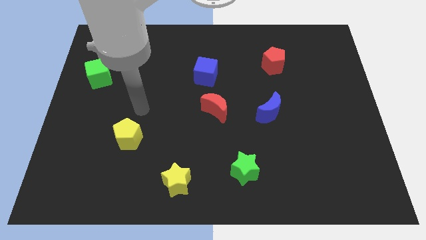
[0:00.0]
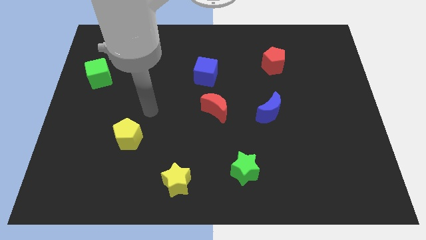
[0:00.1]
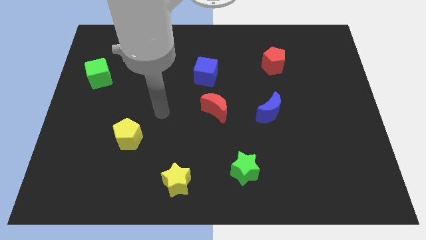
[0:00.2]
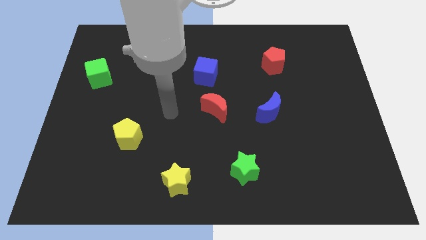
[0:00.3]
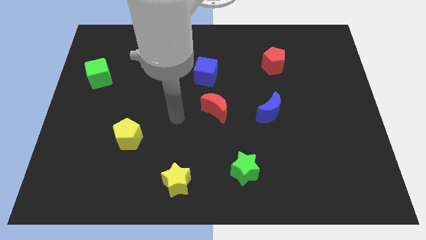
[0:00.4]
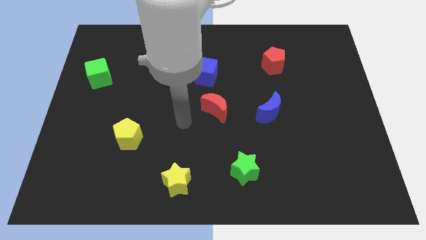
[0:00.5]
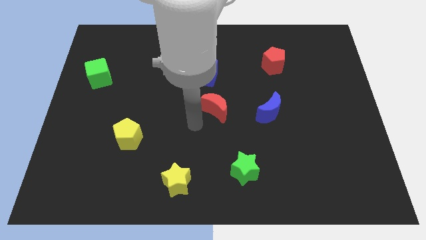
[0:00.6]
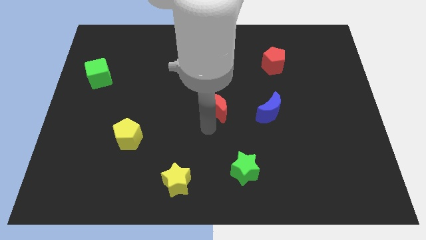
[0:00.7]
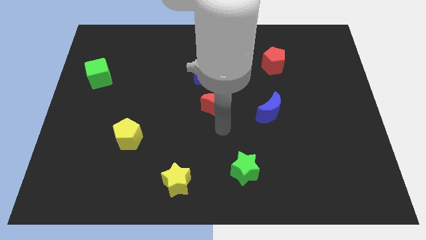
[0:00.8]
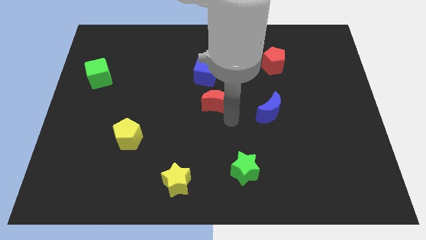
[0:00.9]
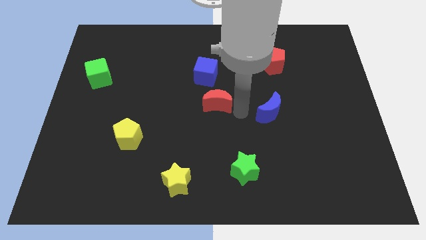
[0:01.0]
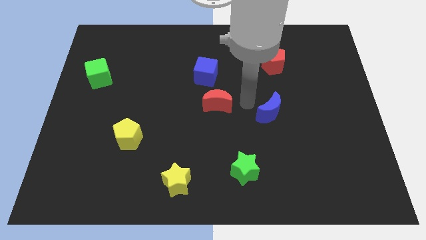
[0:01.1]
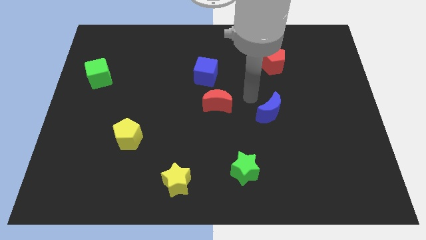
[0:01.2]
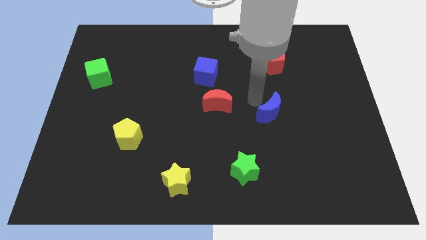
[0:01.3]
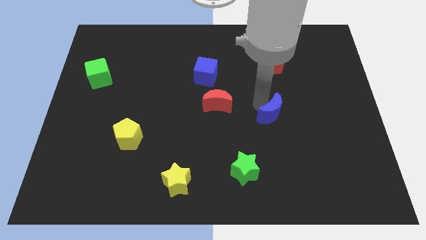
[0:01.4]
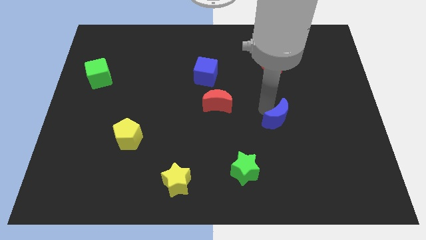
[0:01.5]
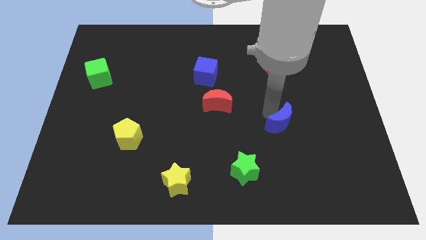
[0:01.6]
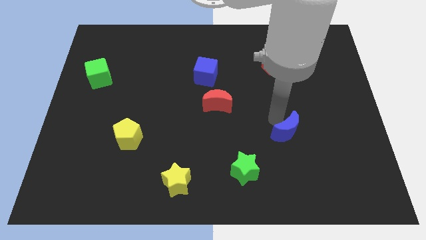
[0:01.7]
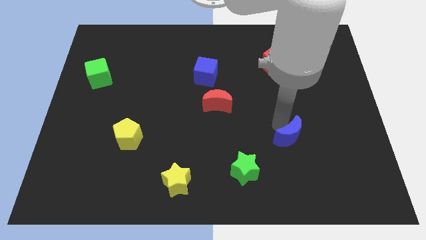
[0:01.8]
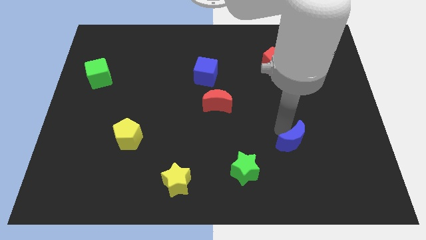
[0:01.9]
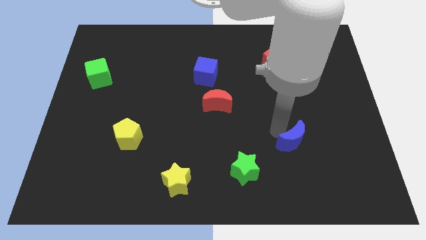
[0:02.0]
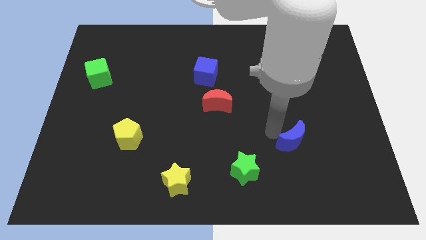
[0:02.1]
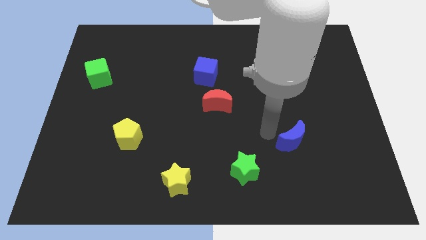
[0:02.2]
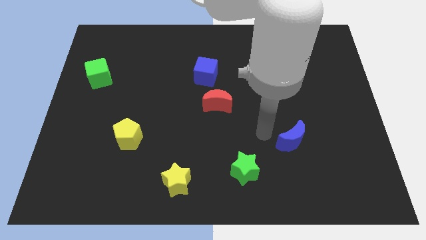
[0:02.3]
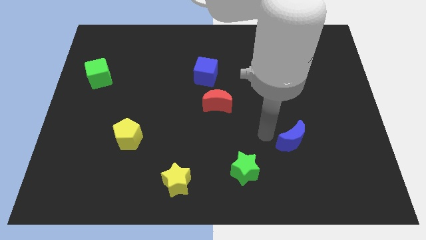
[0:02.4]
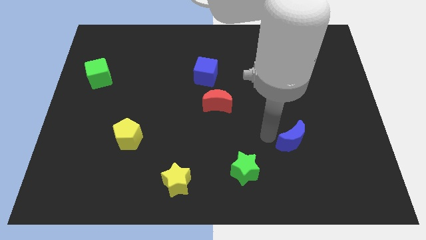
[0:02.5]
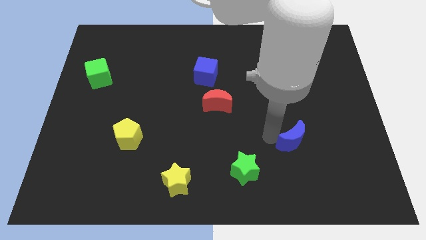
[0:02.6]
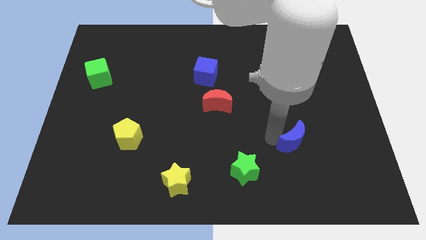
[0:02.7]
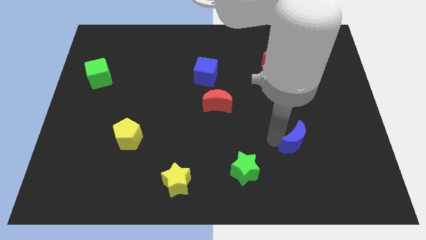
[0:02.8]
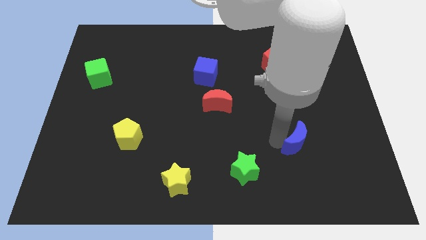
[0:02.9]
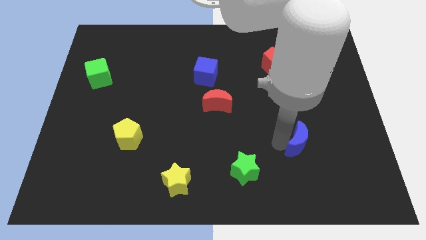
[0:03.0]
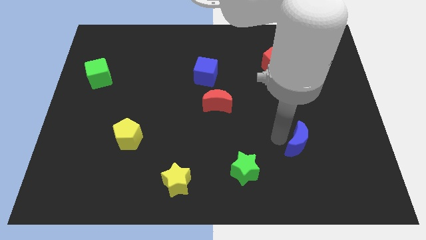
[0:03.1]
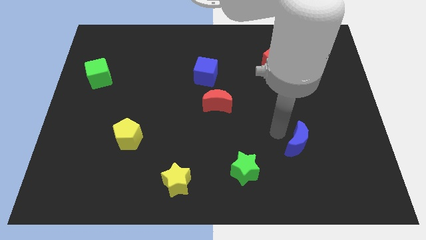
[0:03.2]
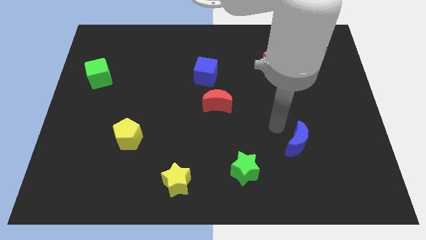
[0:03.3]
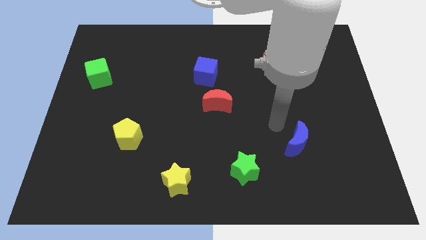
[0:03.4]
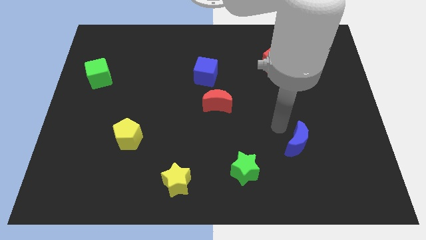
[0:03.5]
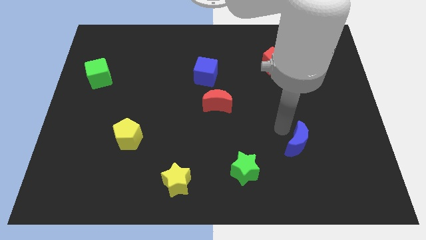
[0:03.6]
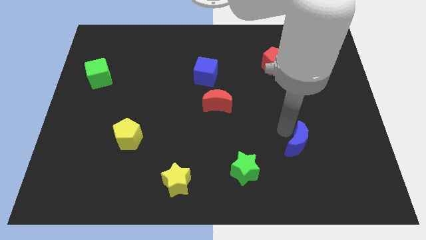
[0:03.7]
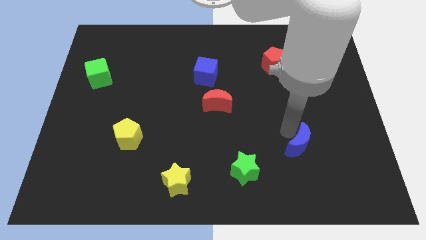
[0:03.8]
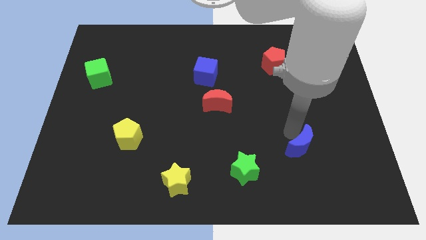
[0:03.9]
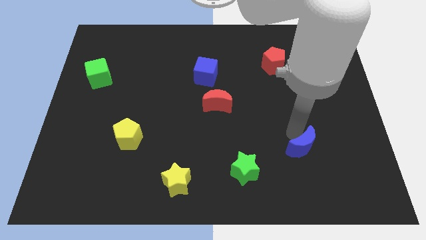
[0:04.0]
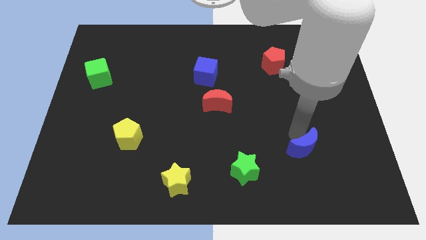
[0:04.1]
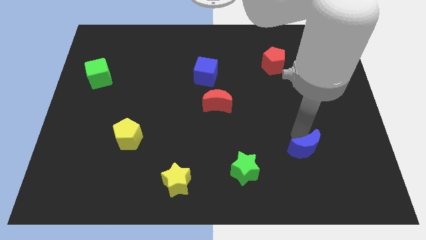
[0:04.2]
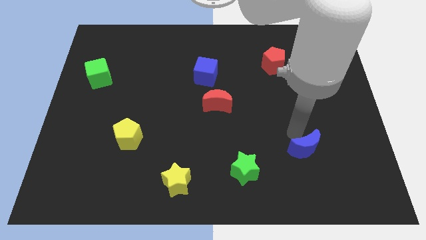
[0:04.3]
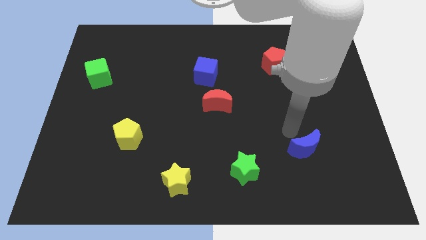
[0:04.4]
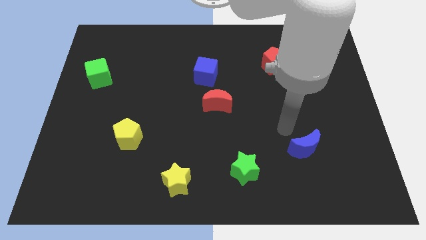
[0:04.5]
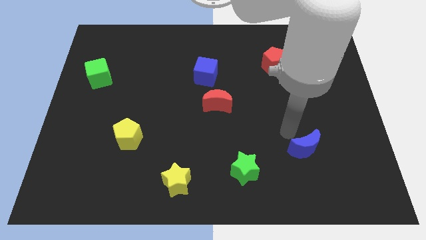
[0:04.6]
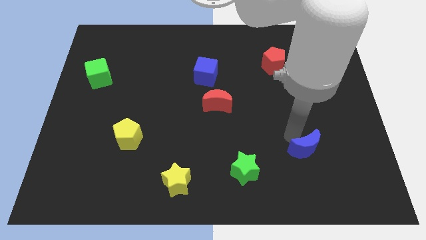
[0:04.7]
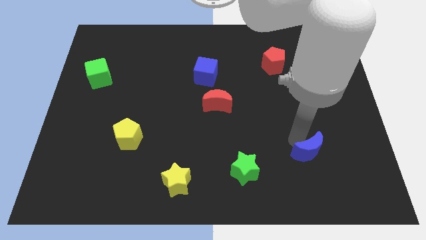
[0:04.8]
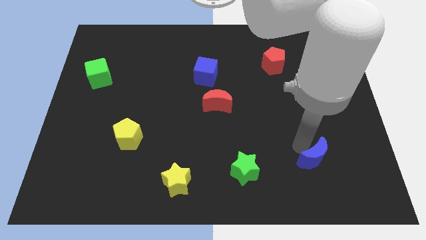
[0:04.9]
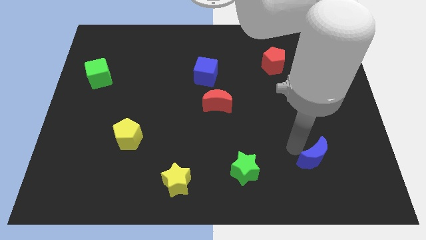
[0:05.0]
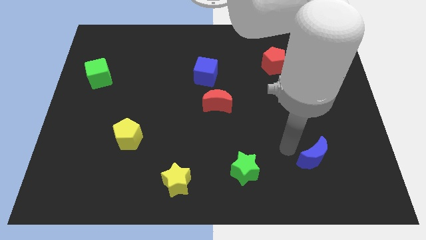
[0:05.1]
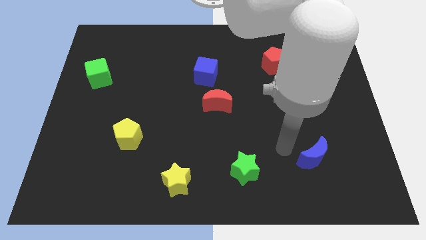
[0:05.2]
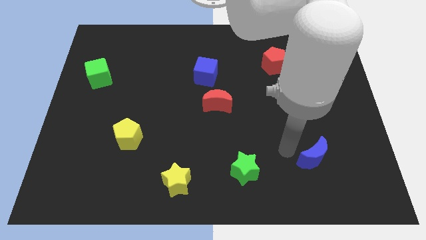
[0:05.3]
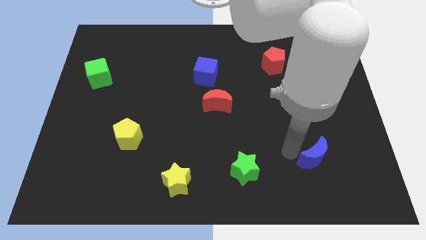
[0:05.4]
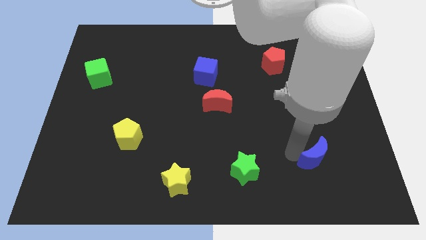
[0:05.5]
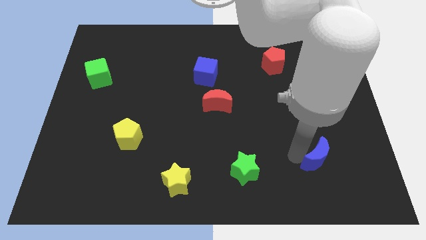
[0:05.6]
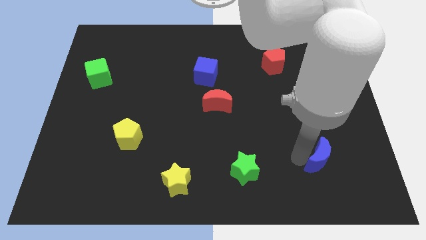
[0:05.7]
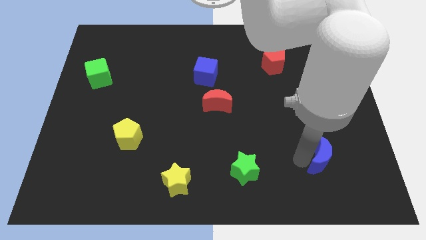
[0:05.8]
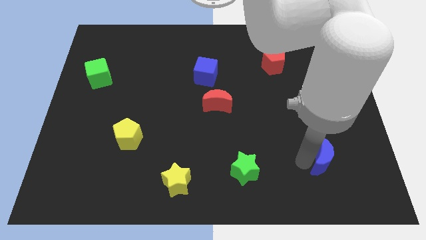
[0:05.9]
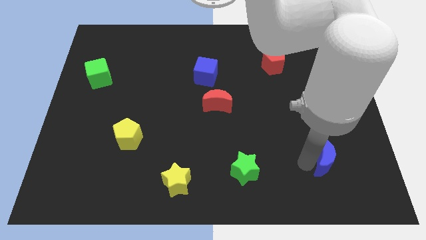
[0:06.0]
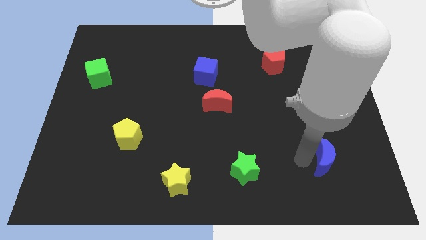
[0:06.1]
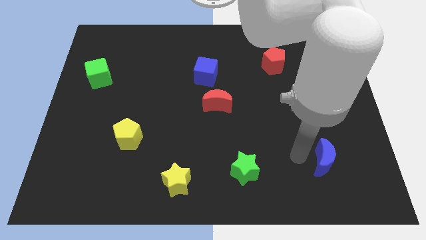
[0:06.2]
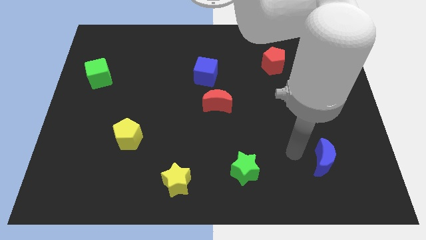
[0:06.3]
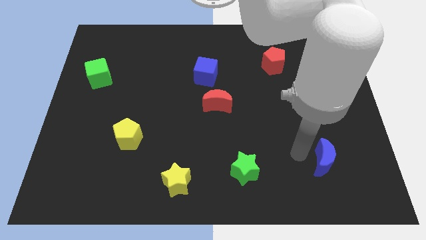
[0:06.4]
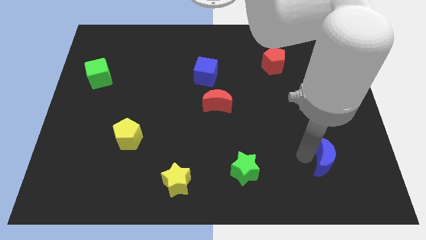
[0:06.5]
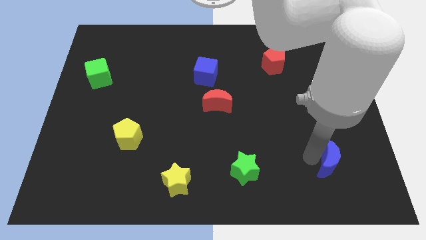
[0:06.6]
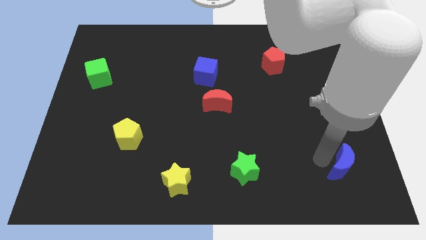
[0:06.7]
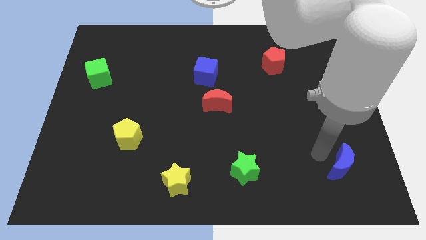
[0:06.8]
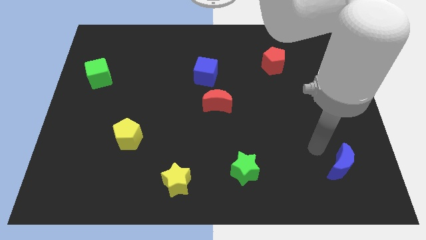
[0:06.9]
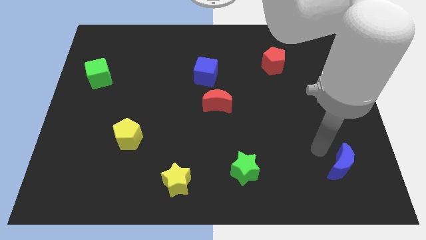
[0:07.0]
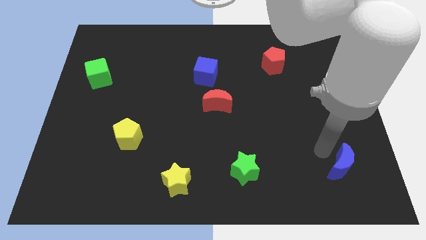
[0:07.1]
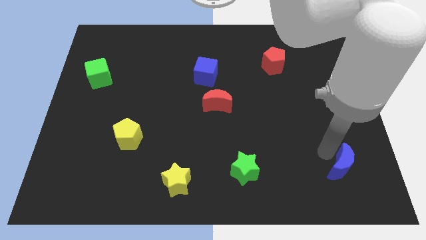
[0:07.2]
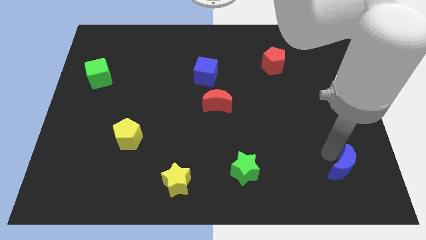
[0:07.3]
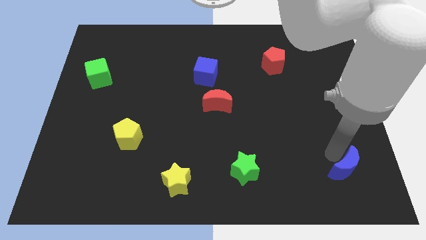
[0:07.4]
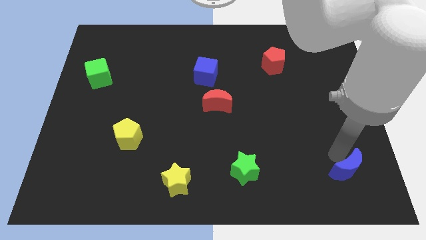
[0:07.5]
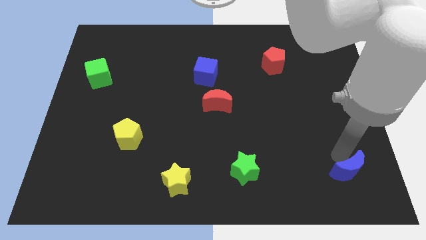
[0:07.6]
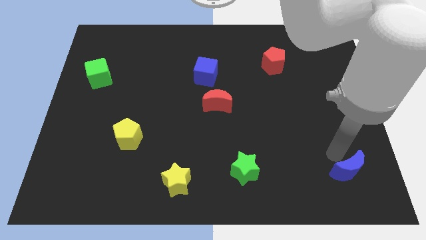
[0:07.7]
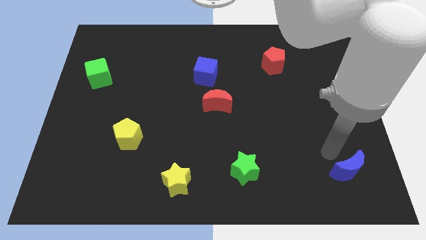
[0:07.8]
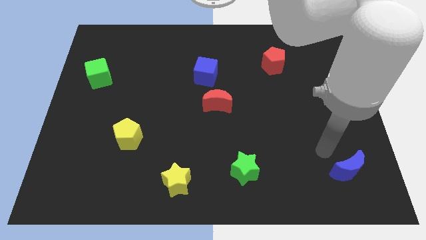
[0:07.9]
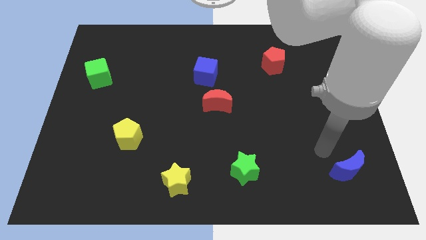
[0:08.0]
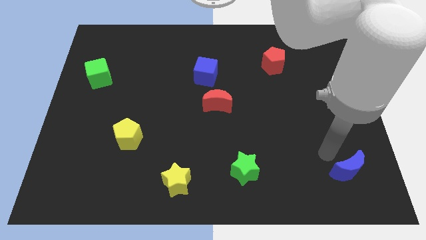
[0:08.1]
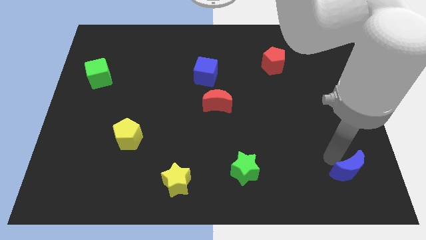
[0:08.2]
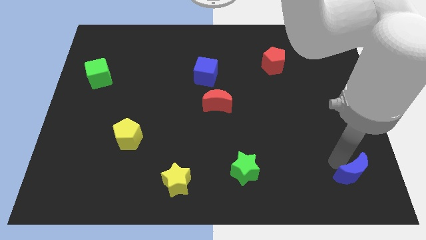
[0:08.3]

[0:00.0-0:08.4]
move the blue moon to the bottom right corner
